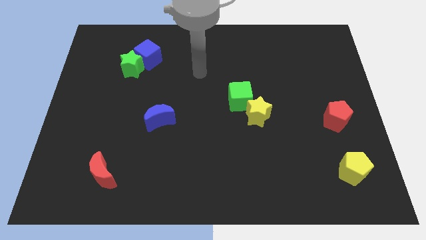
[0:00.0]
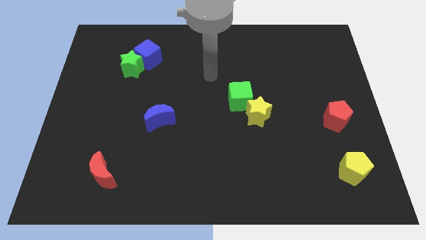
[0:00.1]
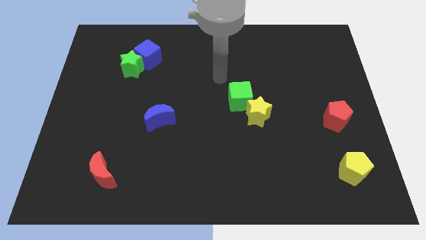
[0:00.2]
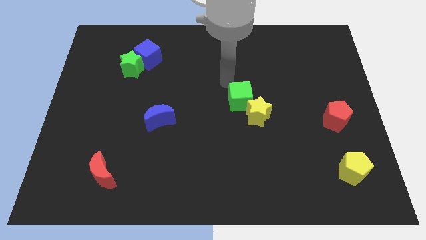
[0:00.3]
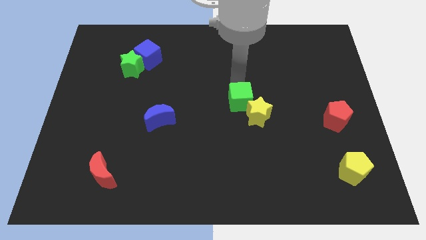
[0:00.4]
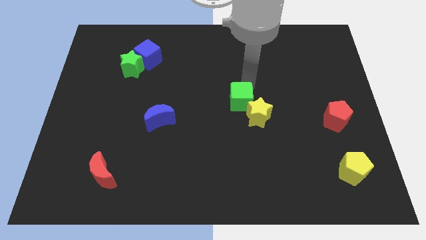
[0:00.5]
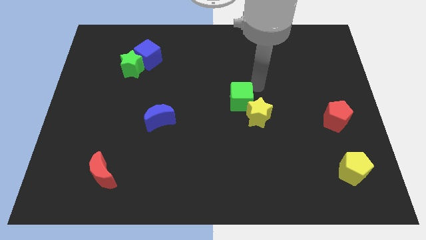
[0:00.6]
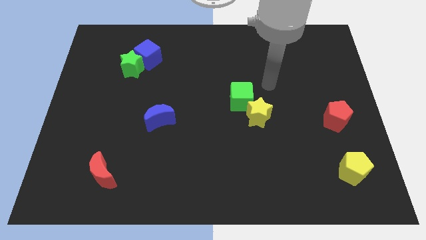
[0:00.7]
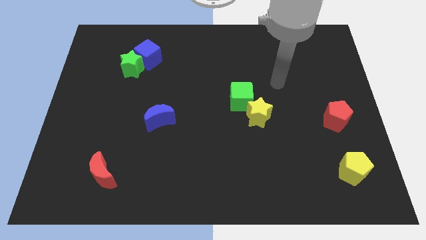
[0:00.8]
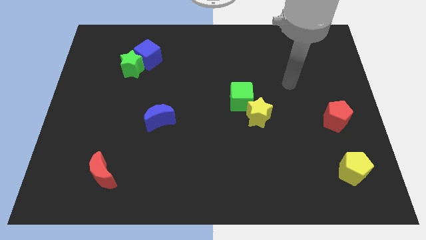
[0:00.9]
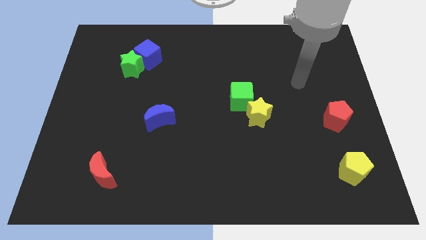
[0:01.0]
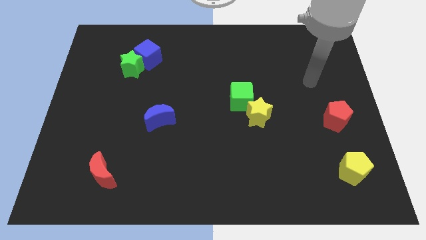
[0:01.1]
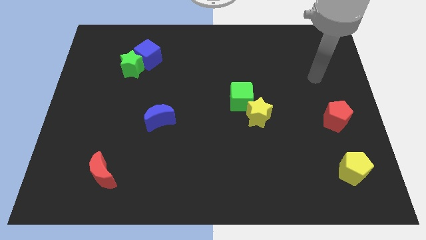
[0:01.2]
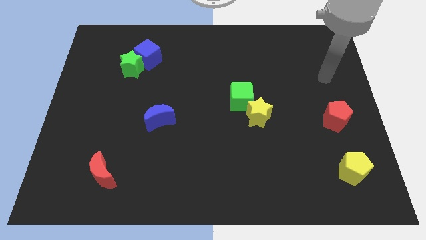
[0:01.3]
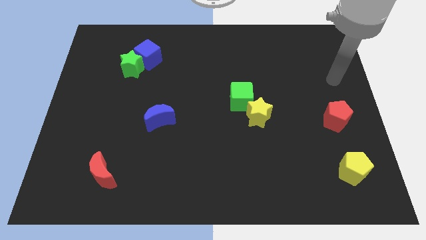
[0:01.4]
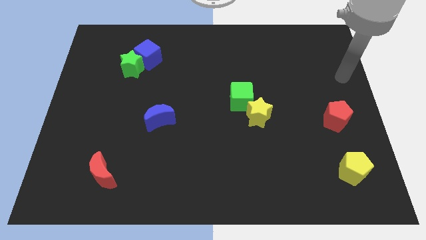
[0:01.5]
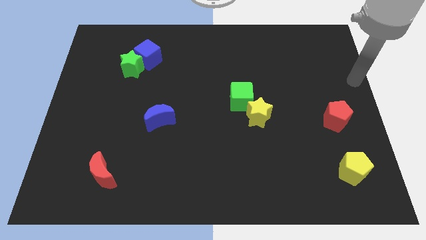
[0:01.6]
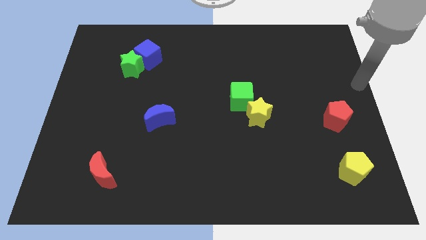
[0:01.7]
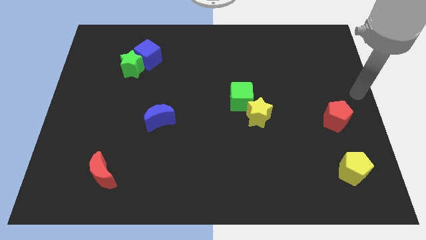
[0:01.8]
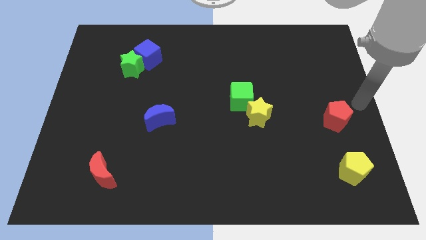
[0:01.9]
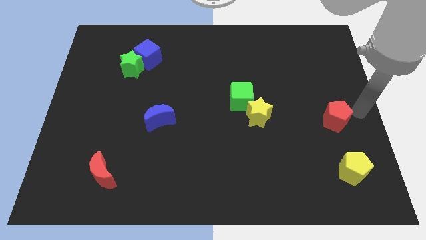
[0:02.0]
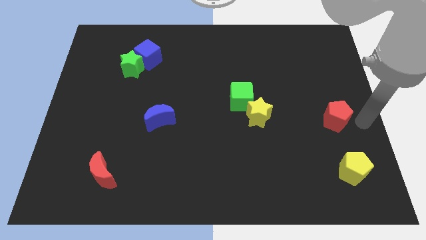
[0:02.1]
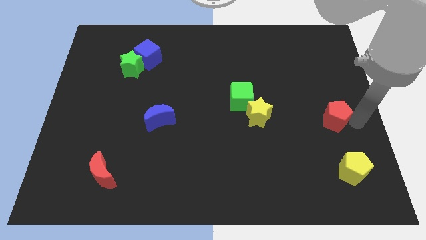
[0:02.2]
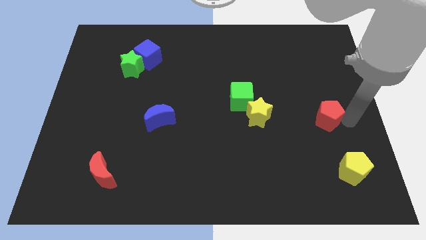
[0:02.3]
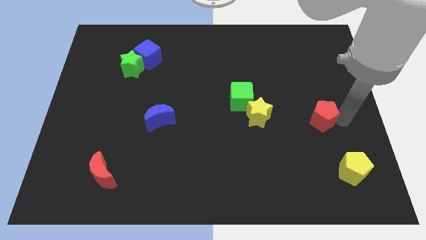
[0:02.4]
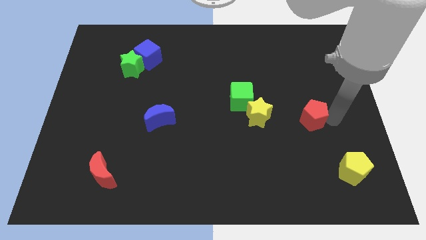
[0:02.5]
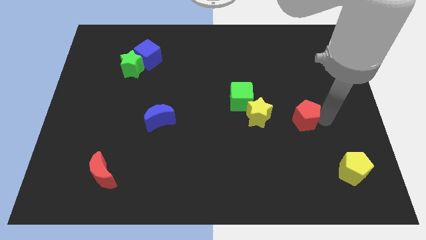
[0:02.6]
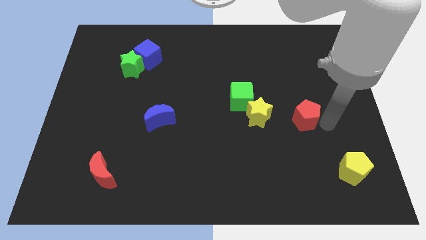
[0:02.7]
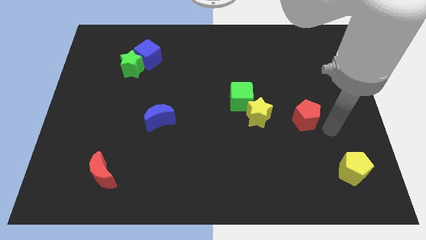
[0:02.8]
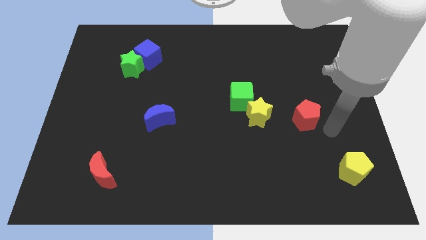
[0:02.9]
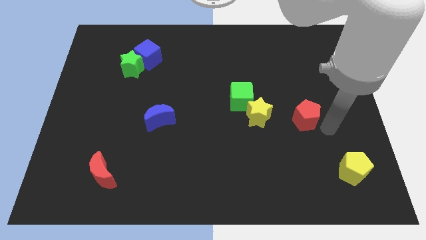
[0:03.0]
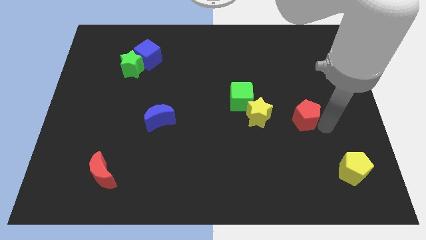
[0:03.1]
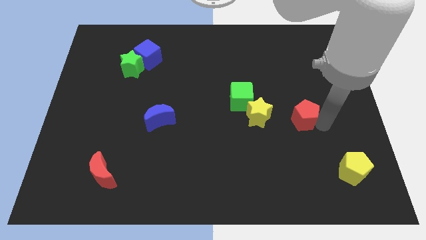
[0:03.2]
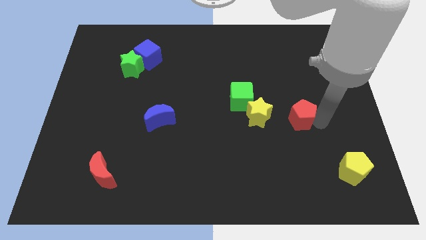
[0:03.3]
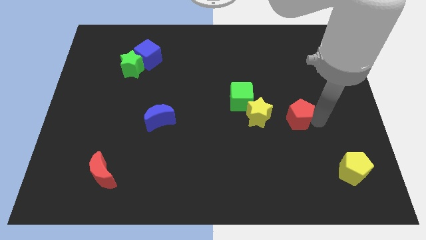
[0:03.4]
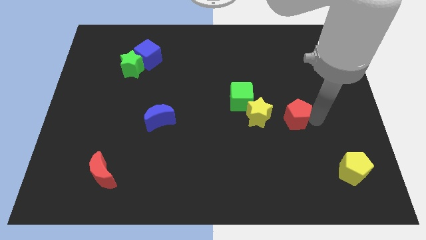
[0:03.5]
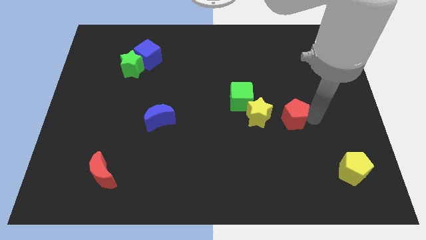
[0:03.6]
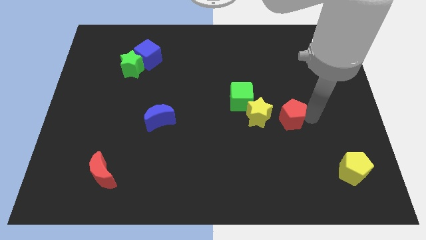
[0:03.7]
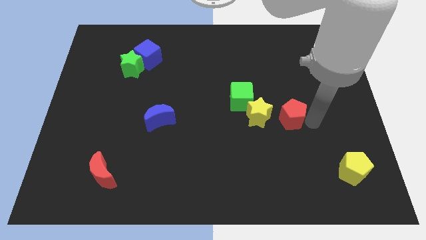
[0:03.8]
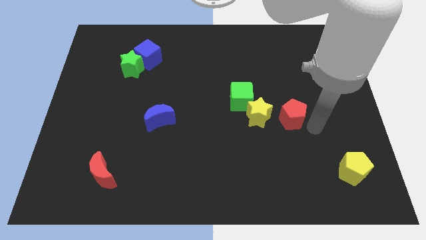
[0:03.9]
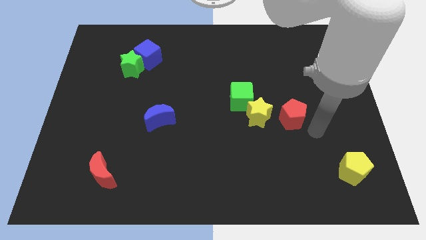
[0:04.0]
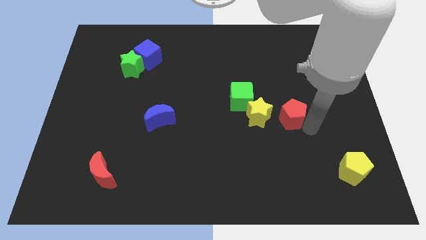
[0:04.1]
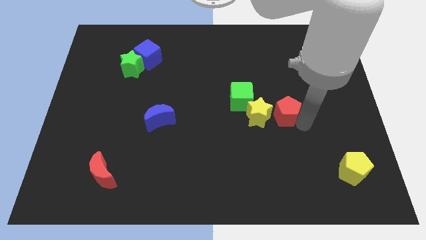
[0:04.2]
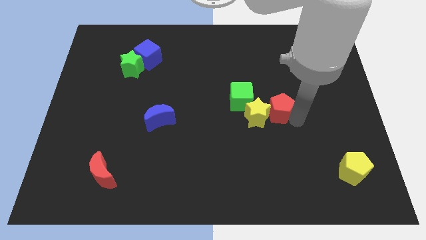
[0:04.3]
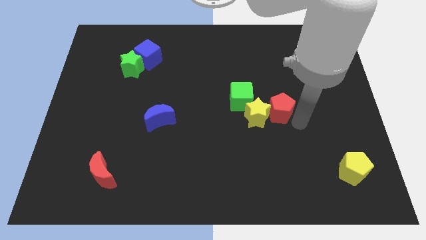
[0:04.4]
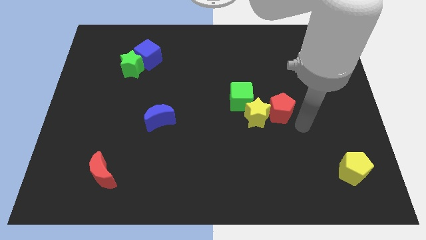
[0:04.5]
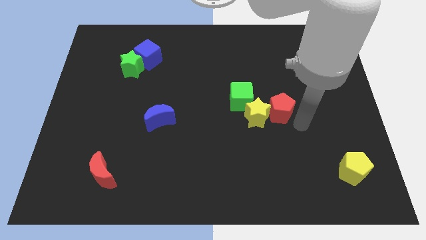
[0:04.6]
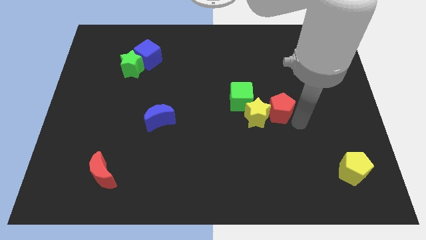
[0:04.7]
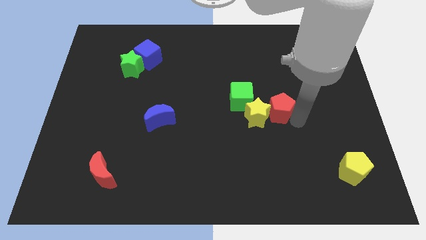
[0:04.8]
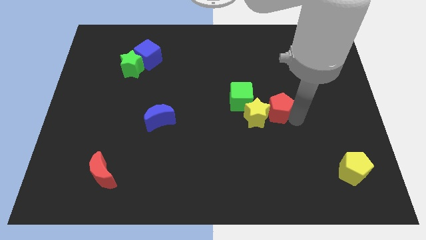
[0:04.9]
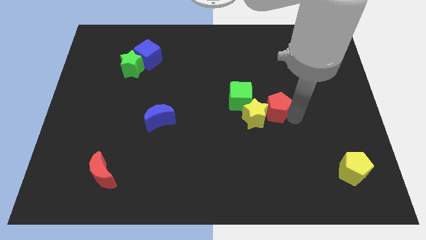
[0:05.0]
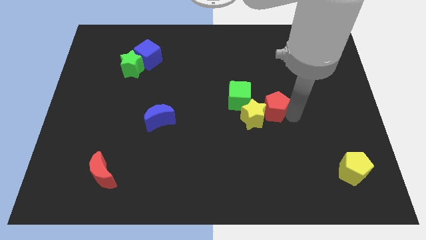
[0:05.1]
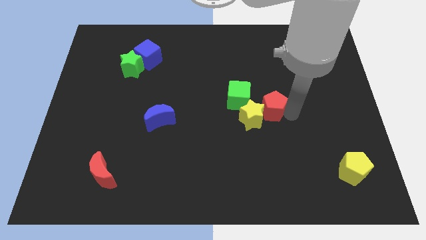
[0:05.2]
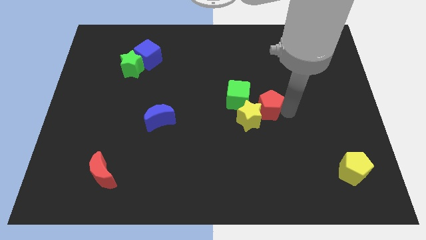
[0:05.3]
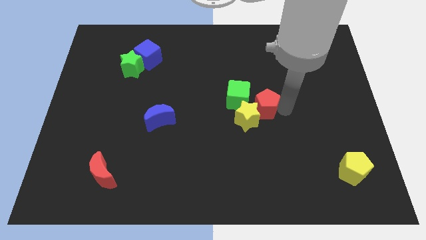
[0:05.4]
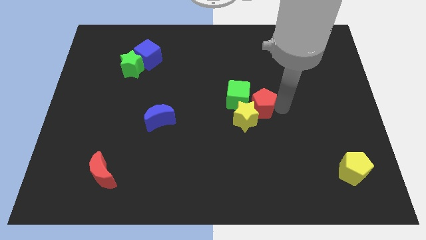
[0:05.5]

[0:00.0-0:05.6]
put the red pentagon next to the green cube

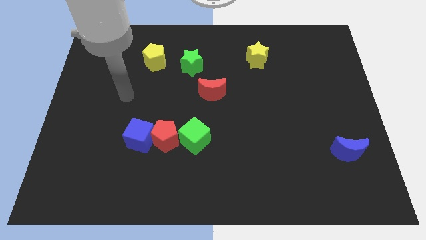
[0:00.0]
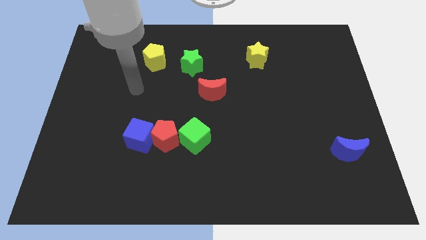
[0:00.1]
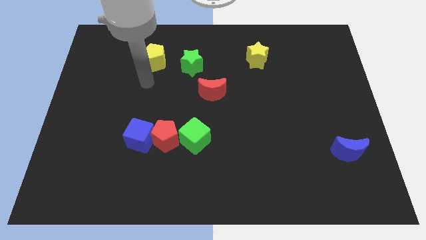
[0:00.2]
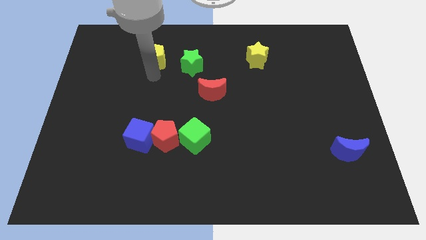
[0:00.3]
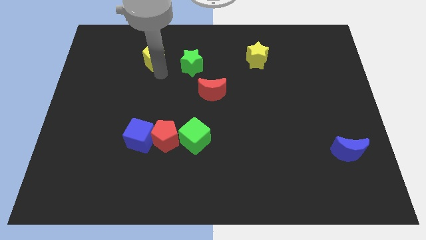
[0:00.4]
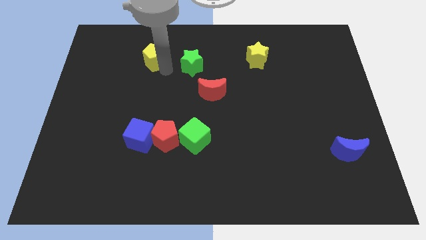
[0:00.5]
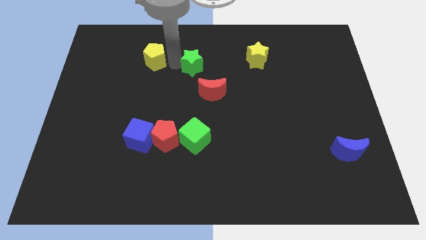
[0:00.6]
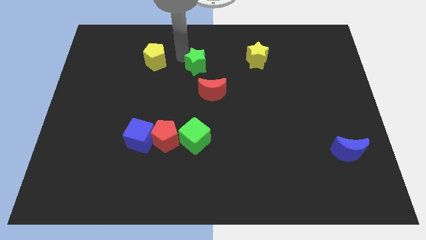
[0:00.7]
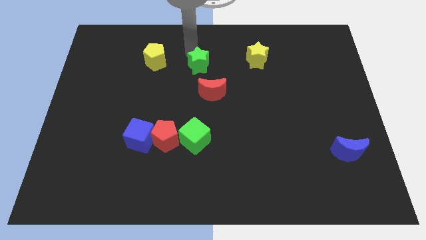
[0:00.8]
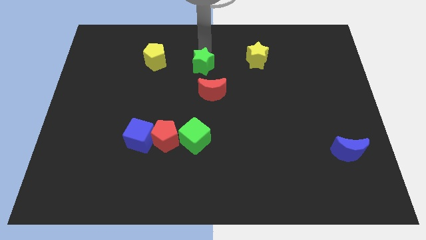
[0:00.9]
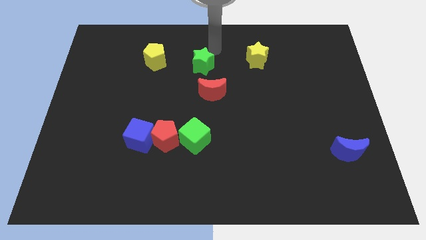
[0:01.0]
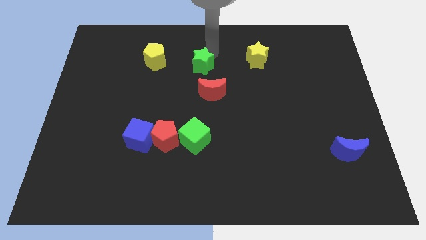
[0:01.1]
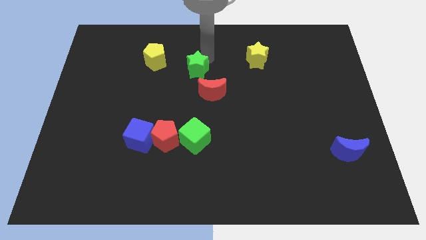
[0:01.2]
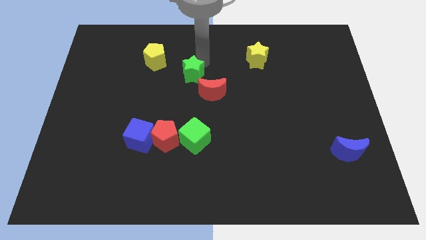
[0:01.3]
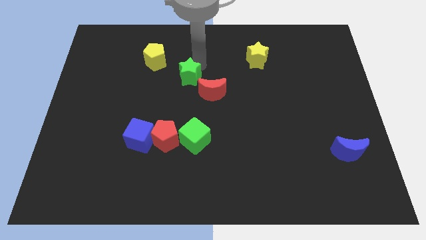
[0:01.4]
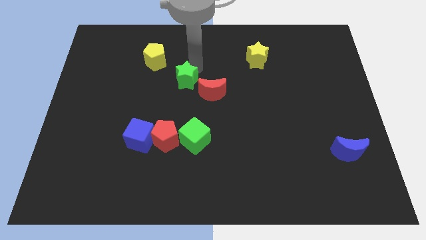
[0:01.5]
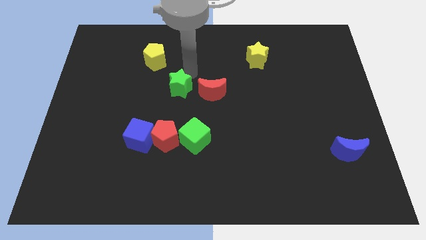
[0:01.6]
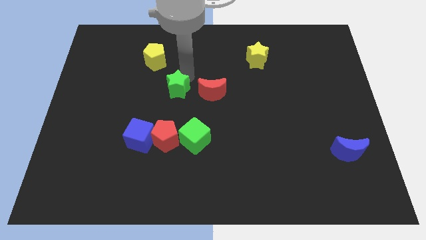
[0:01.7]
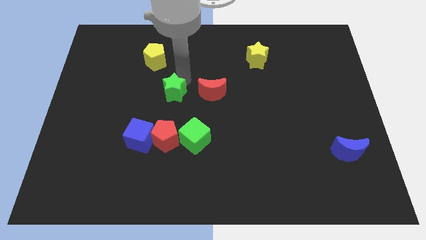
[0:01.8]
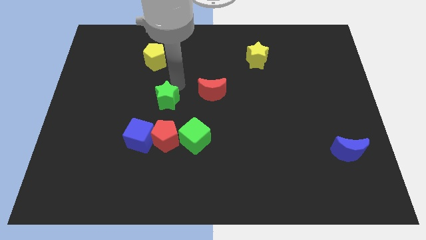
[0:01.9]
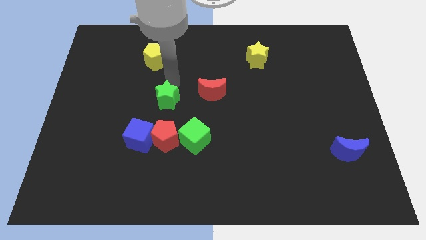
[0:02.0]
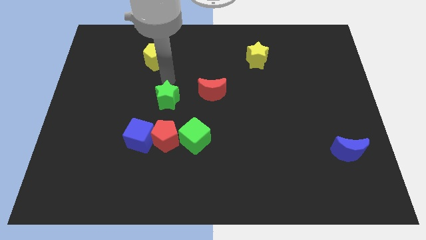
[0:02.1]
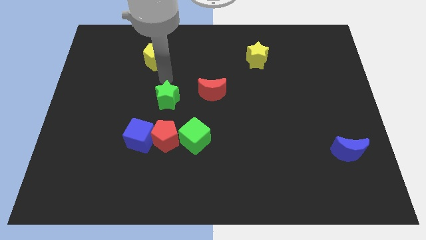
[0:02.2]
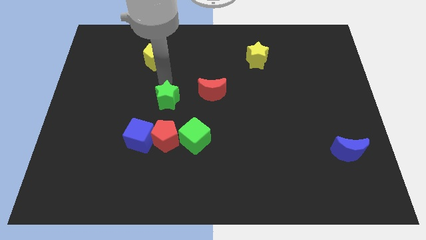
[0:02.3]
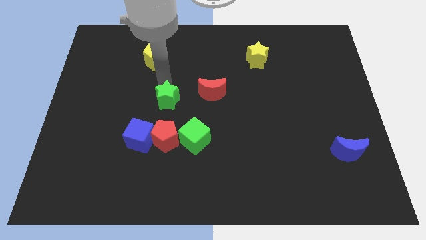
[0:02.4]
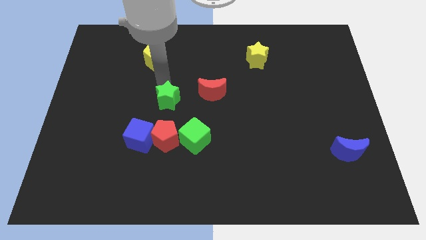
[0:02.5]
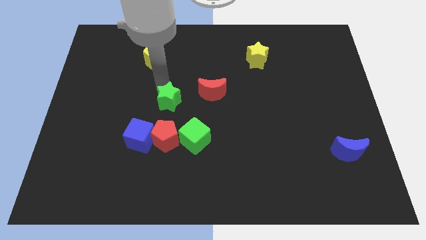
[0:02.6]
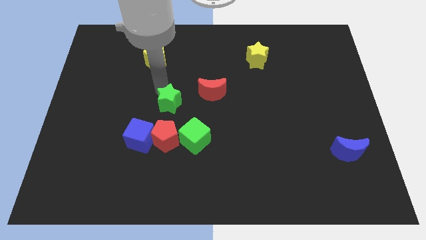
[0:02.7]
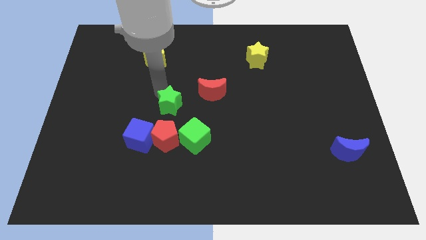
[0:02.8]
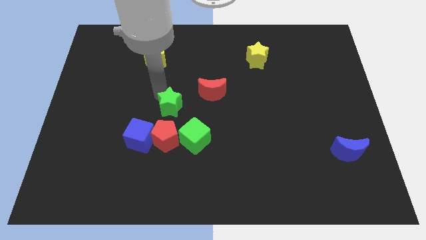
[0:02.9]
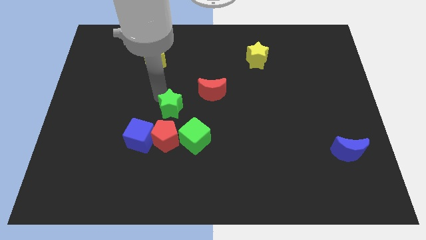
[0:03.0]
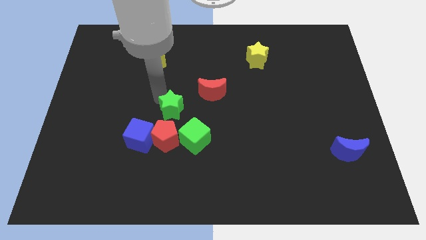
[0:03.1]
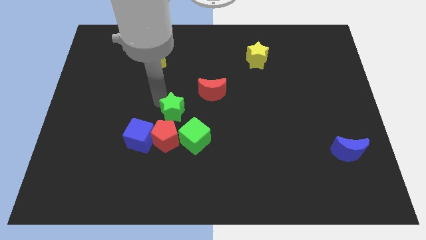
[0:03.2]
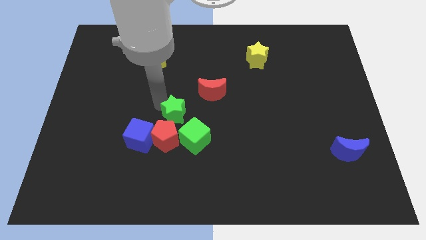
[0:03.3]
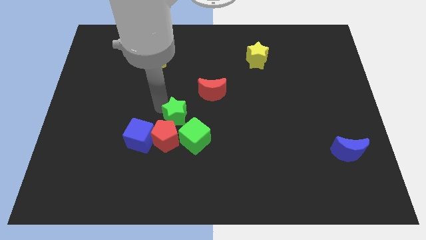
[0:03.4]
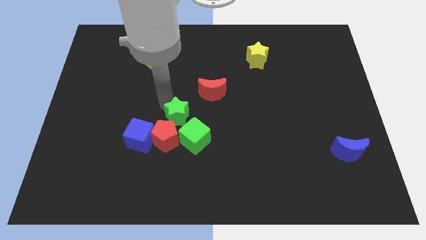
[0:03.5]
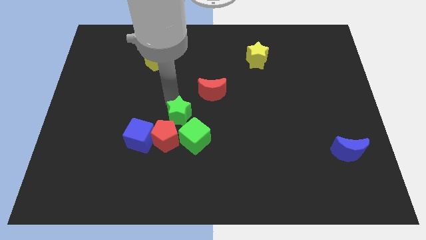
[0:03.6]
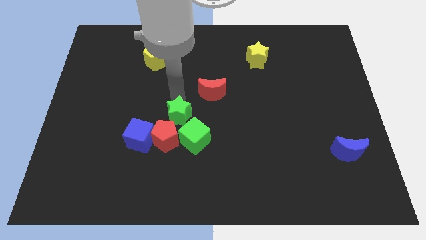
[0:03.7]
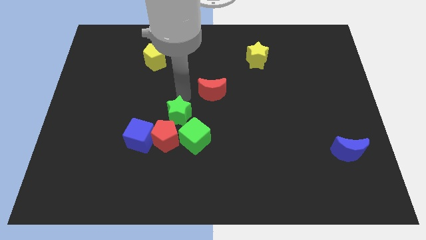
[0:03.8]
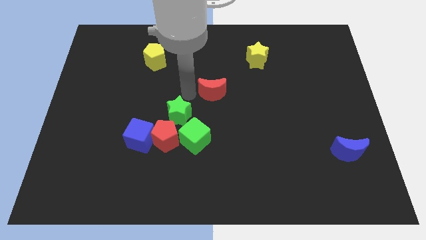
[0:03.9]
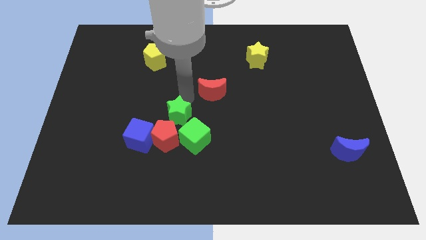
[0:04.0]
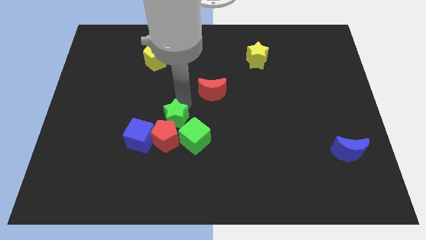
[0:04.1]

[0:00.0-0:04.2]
move the green star towards the red pentagon
